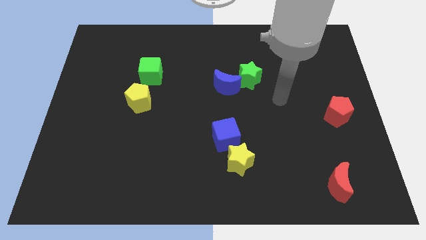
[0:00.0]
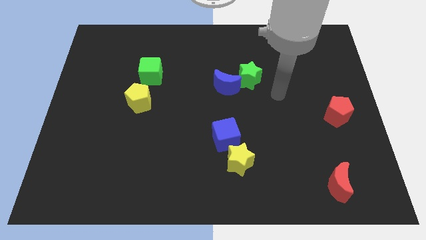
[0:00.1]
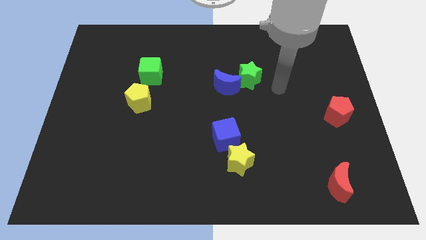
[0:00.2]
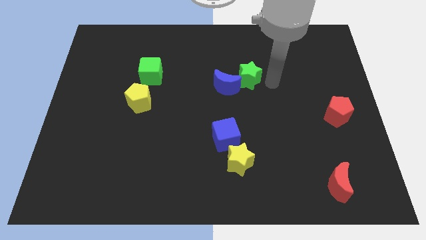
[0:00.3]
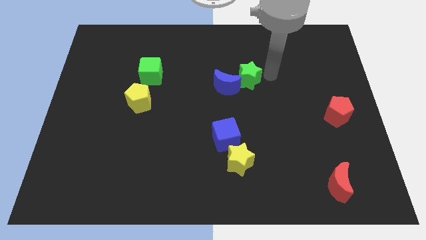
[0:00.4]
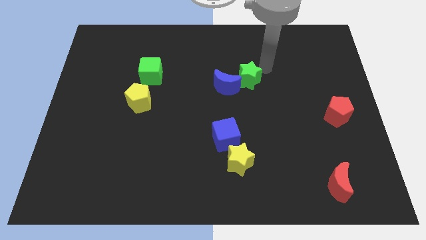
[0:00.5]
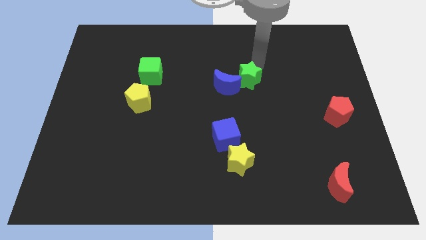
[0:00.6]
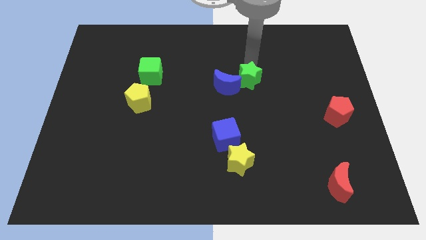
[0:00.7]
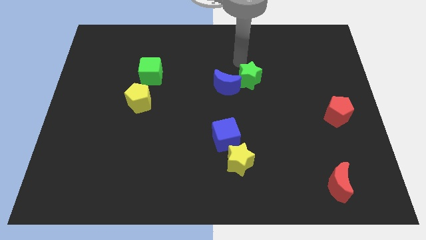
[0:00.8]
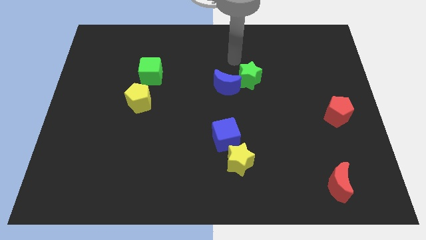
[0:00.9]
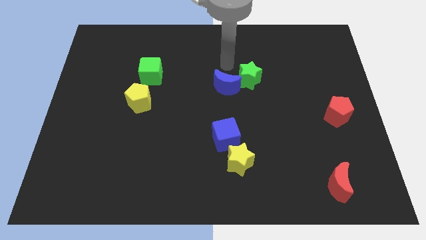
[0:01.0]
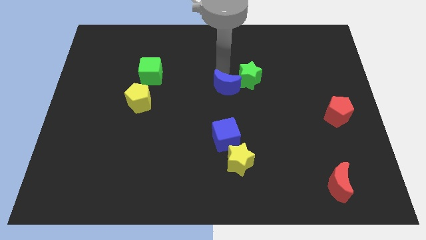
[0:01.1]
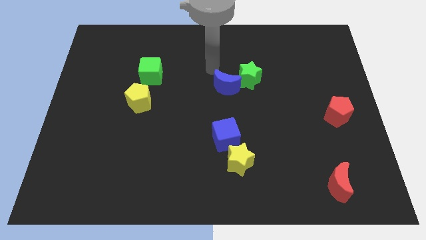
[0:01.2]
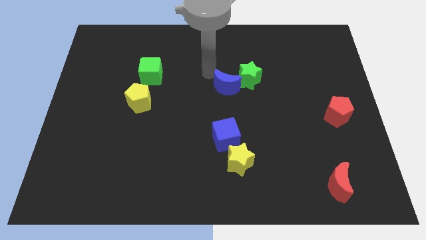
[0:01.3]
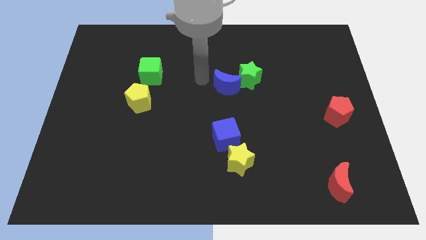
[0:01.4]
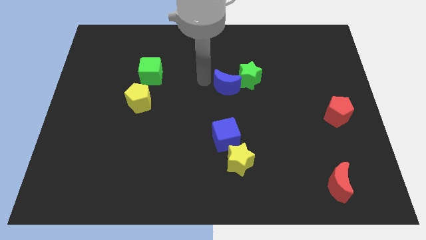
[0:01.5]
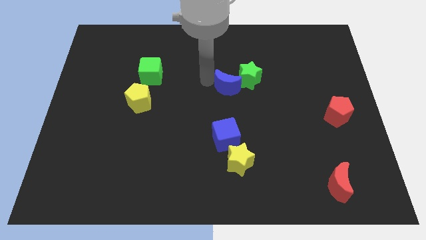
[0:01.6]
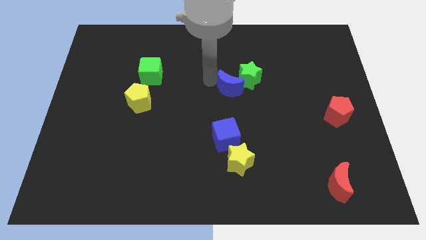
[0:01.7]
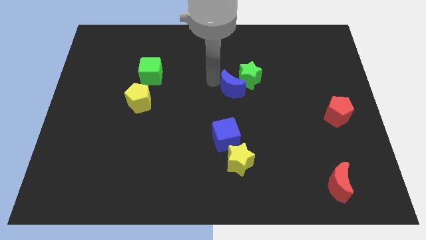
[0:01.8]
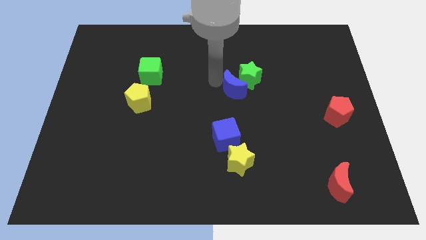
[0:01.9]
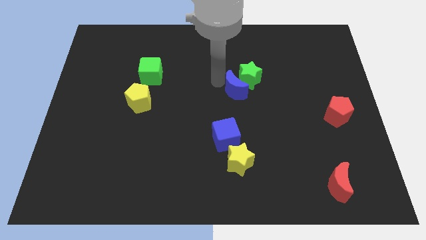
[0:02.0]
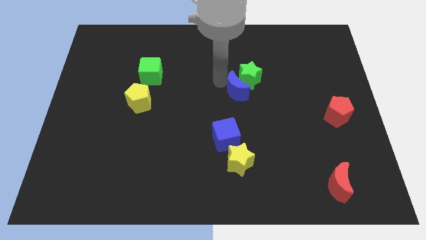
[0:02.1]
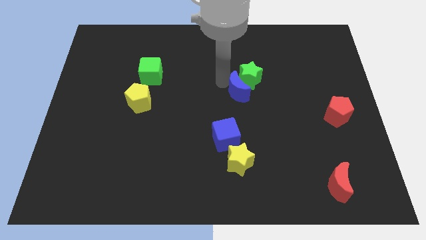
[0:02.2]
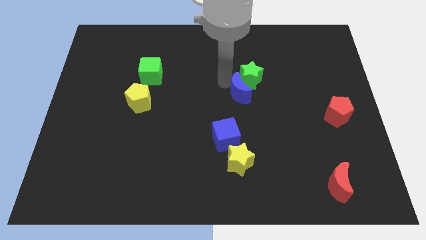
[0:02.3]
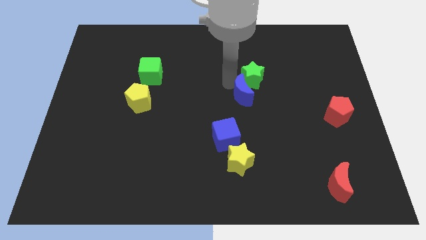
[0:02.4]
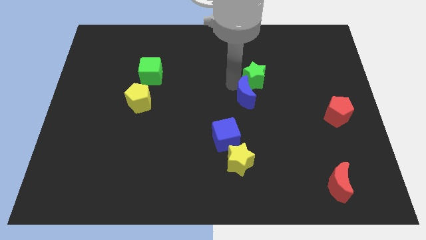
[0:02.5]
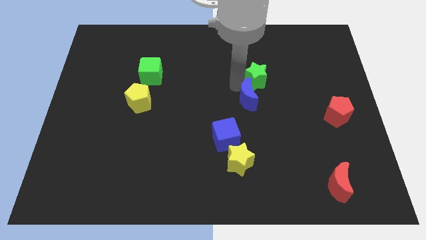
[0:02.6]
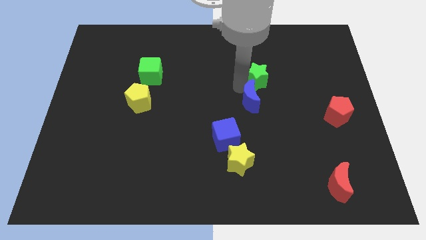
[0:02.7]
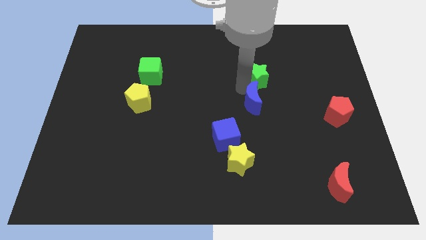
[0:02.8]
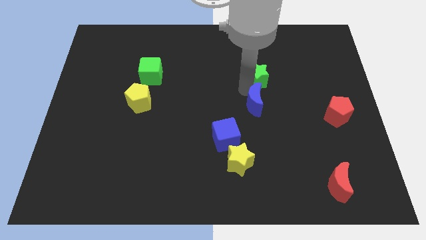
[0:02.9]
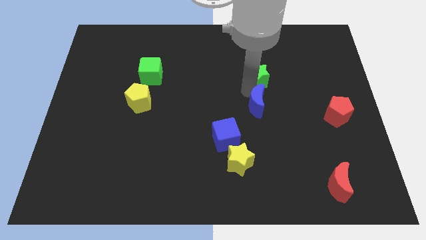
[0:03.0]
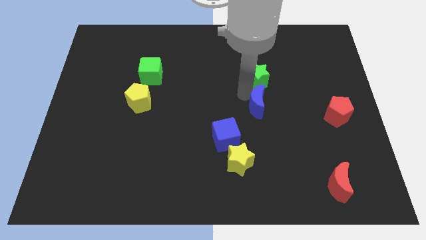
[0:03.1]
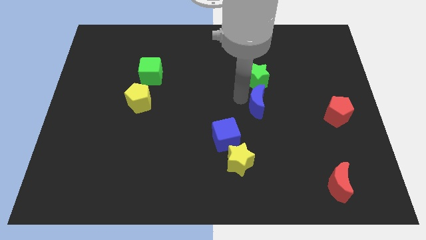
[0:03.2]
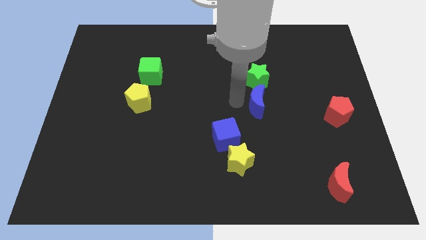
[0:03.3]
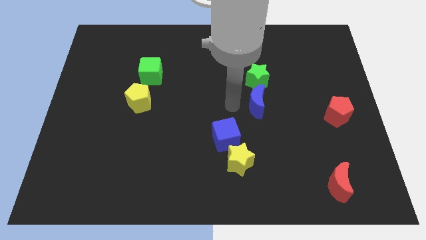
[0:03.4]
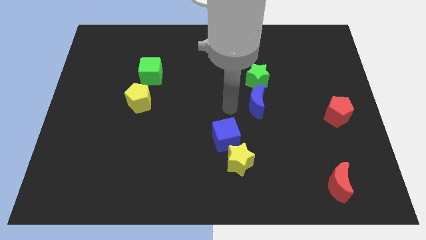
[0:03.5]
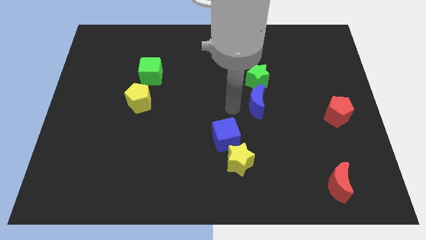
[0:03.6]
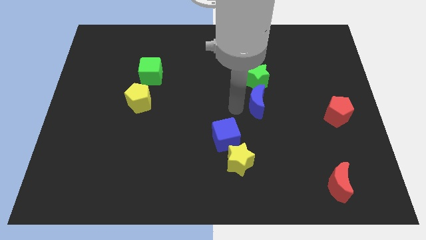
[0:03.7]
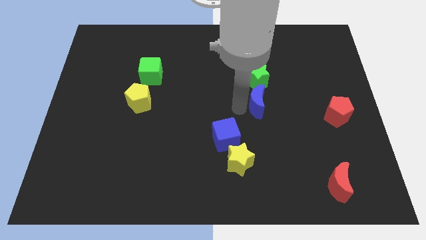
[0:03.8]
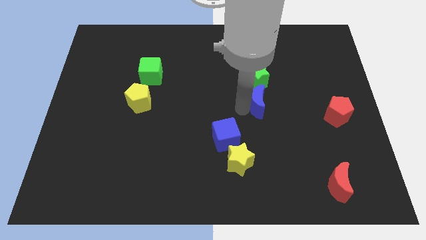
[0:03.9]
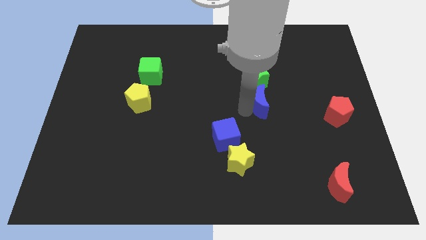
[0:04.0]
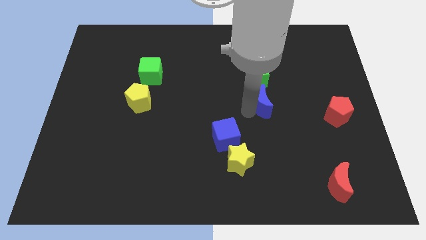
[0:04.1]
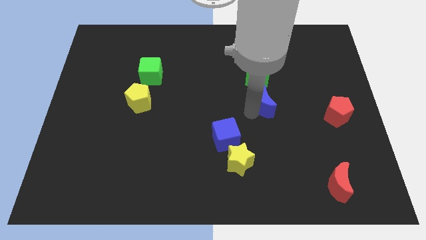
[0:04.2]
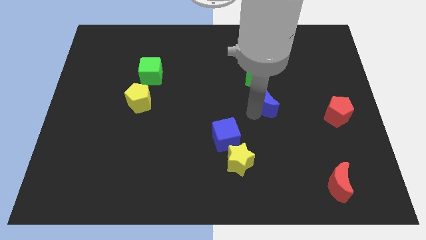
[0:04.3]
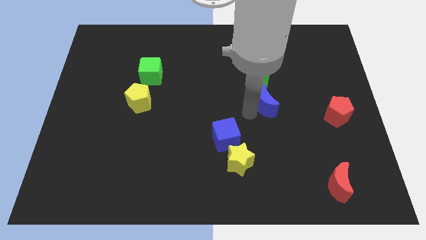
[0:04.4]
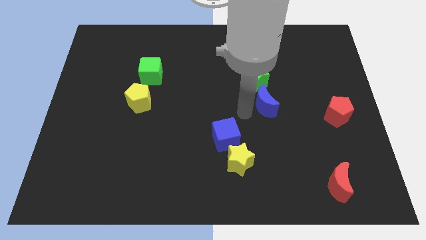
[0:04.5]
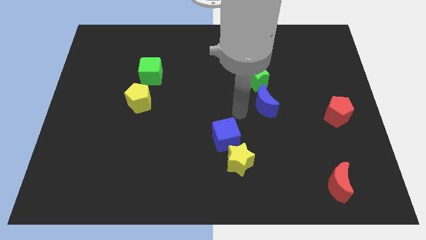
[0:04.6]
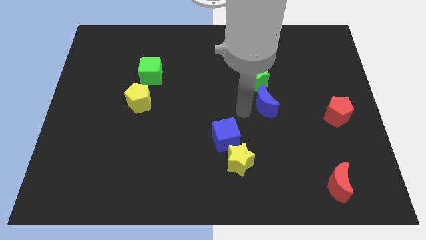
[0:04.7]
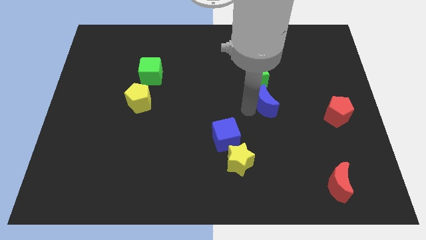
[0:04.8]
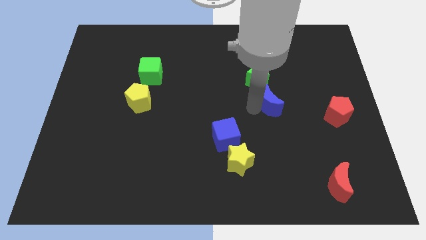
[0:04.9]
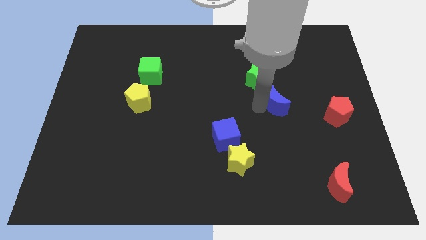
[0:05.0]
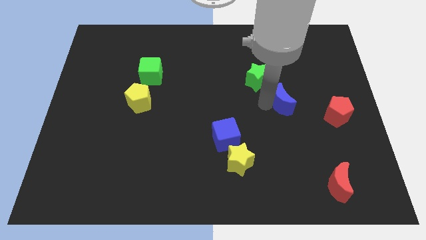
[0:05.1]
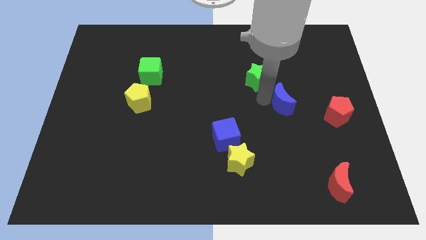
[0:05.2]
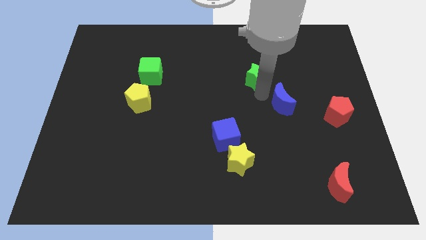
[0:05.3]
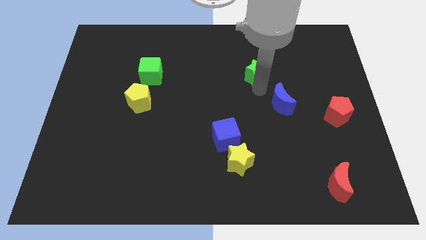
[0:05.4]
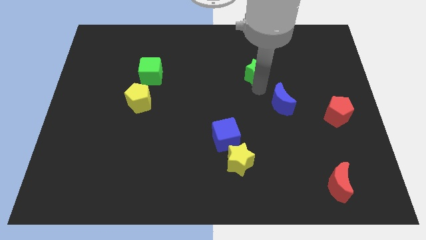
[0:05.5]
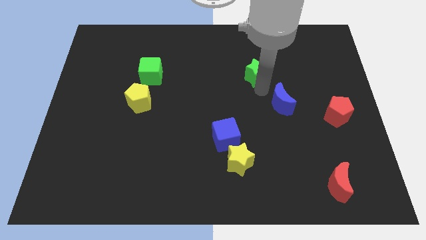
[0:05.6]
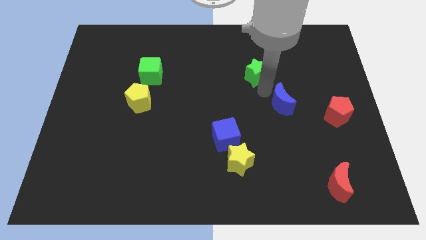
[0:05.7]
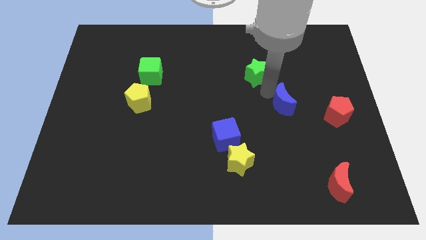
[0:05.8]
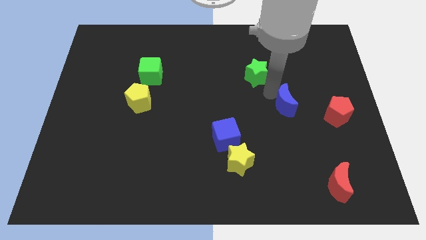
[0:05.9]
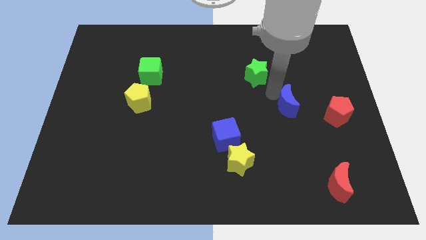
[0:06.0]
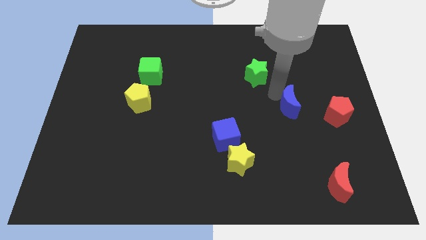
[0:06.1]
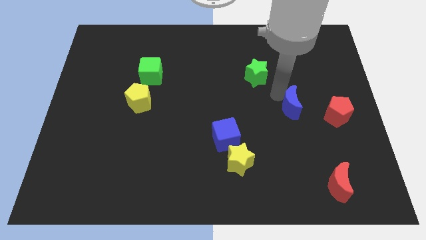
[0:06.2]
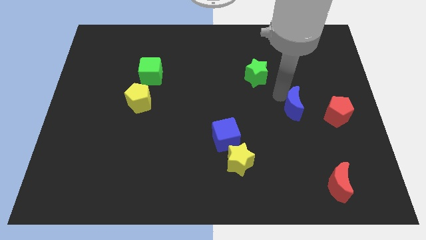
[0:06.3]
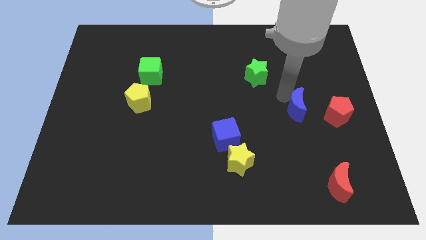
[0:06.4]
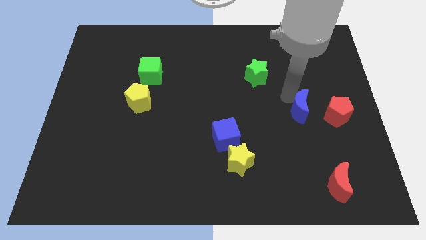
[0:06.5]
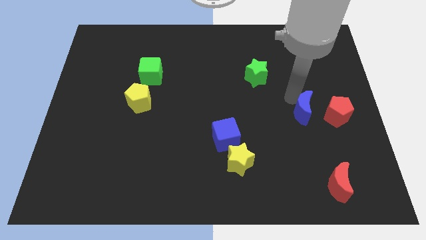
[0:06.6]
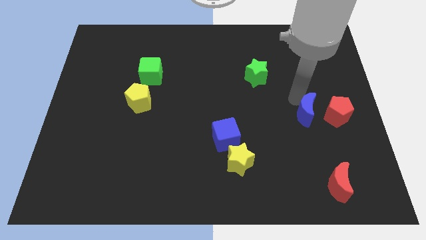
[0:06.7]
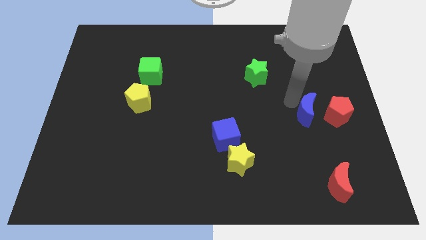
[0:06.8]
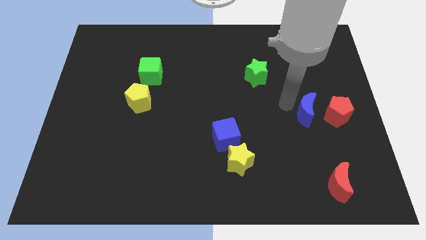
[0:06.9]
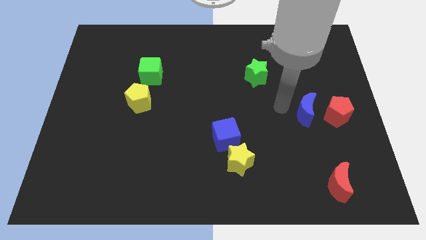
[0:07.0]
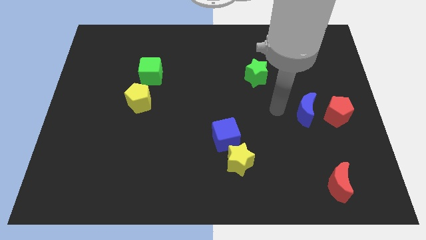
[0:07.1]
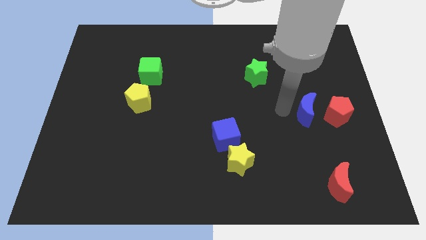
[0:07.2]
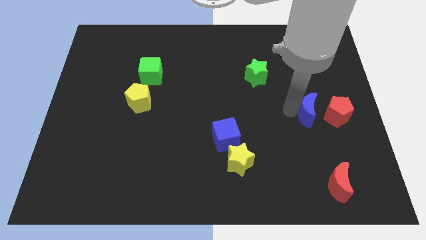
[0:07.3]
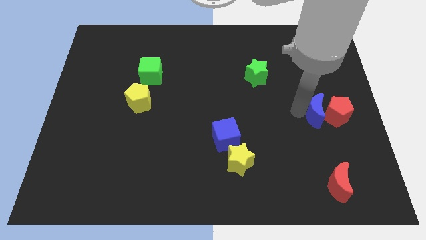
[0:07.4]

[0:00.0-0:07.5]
move the blue moon to the red pentagon
